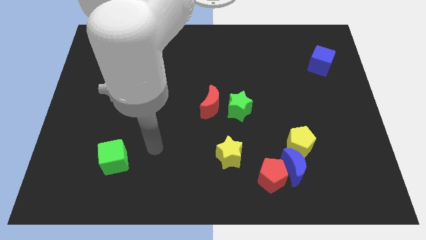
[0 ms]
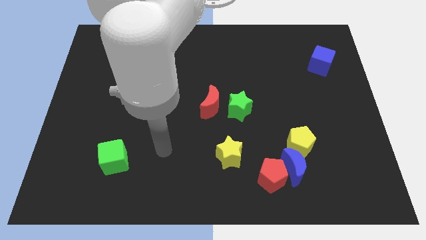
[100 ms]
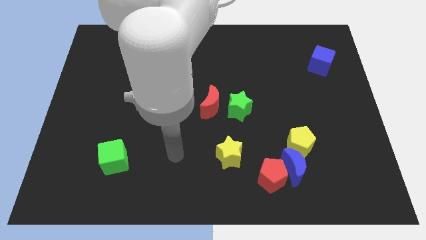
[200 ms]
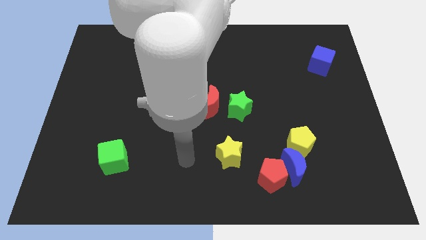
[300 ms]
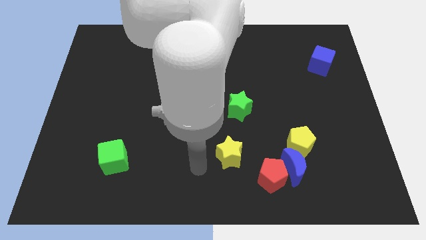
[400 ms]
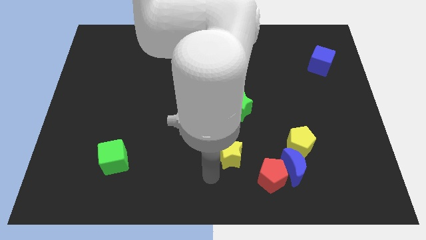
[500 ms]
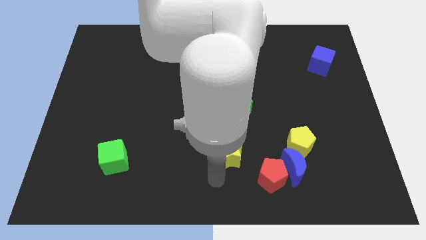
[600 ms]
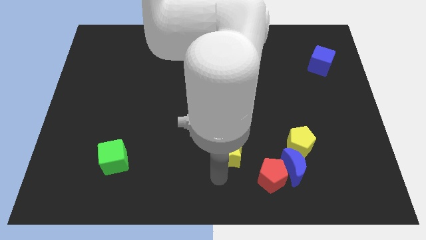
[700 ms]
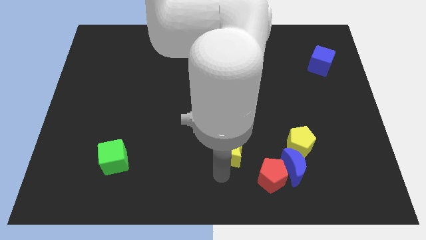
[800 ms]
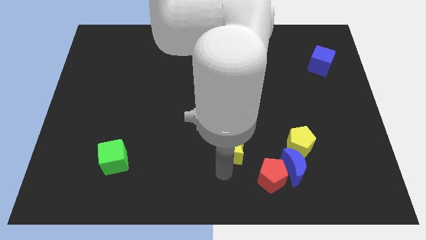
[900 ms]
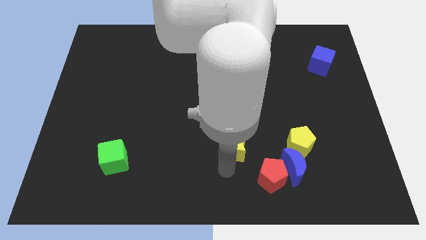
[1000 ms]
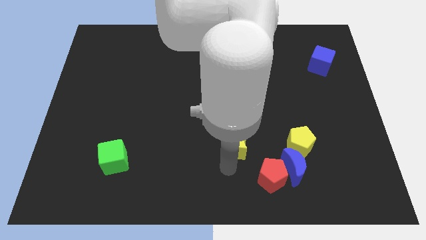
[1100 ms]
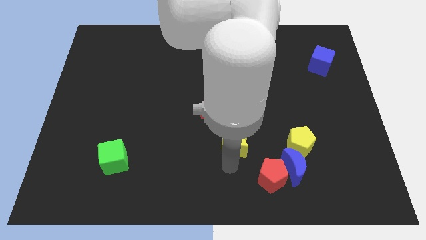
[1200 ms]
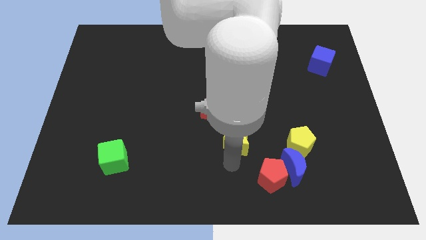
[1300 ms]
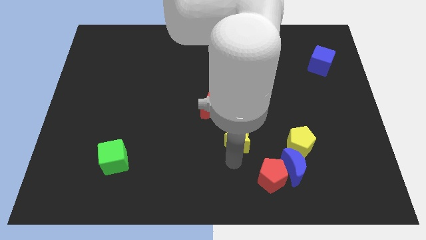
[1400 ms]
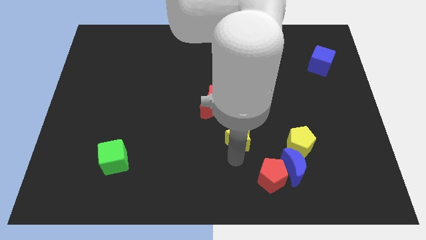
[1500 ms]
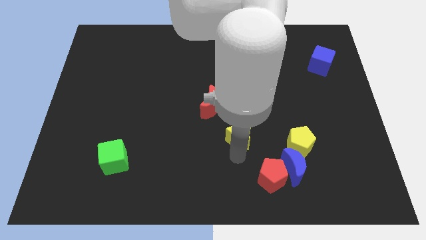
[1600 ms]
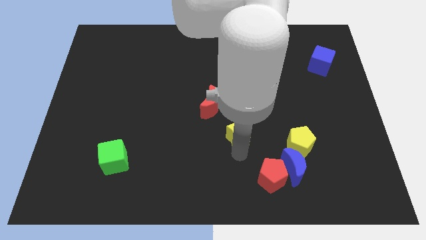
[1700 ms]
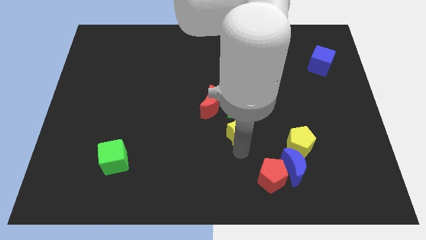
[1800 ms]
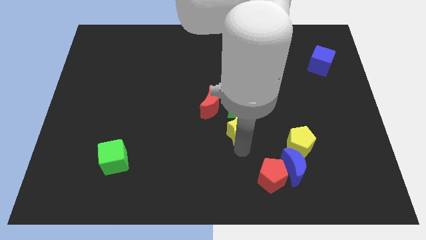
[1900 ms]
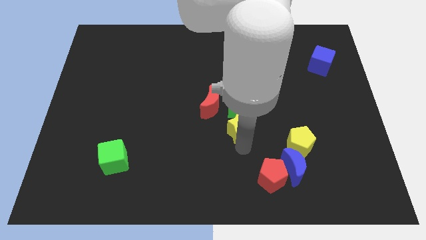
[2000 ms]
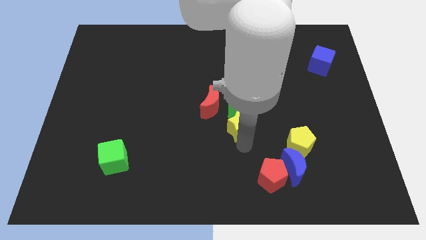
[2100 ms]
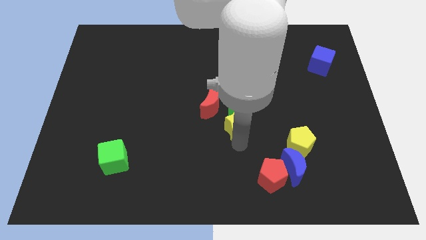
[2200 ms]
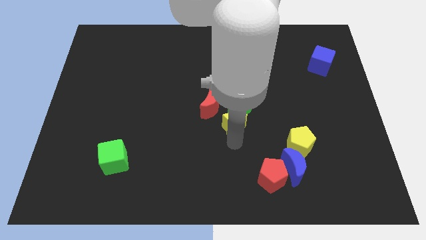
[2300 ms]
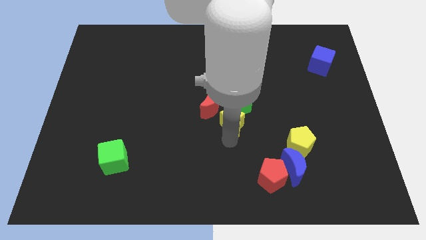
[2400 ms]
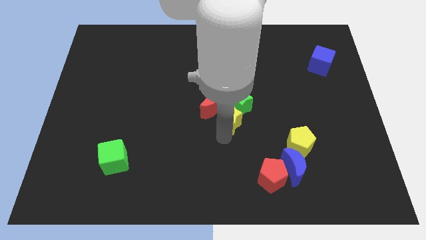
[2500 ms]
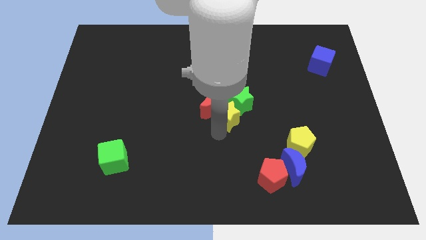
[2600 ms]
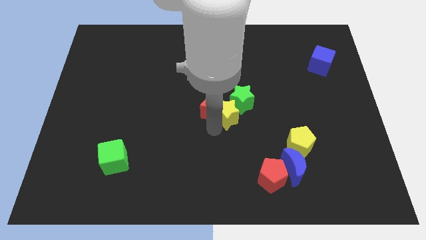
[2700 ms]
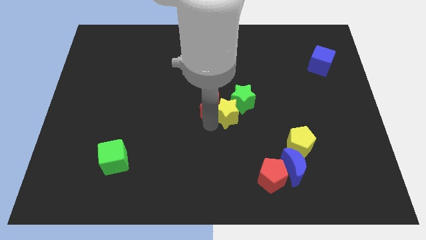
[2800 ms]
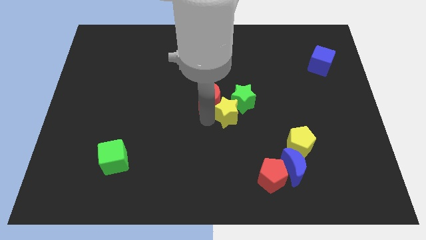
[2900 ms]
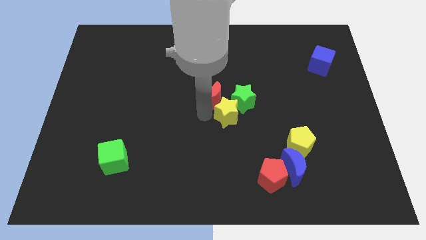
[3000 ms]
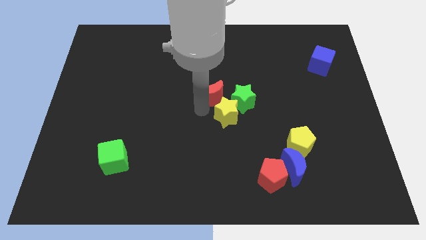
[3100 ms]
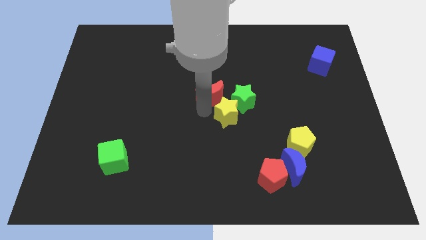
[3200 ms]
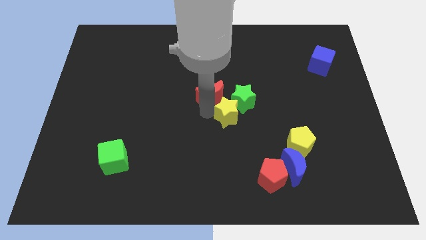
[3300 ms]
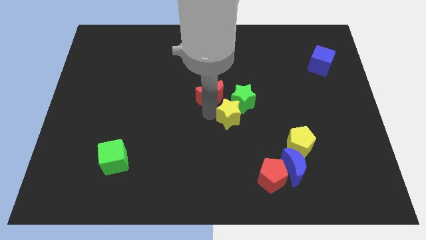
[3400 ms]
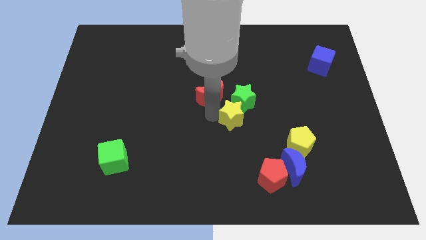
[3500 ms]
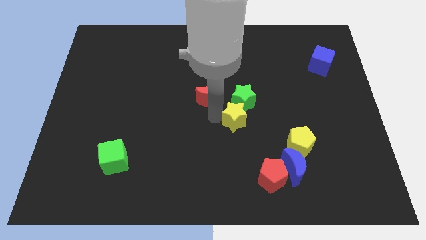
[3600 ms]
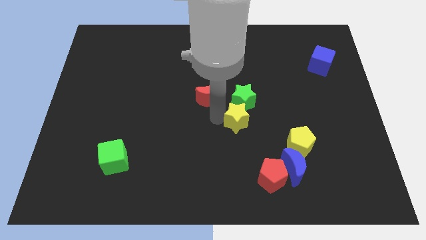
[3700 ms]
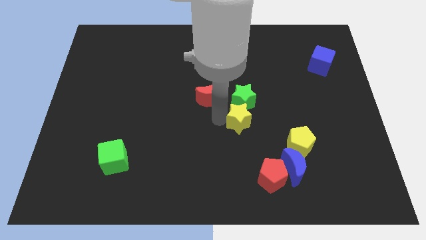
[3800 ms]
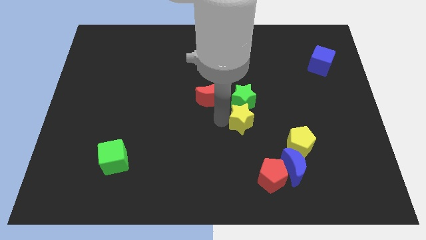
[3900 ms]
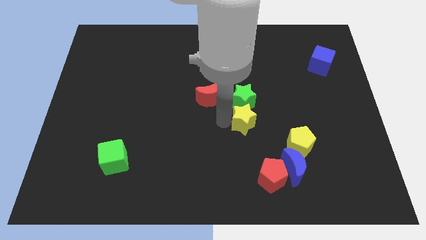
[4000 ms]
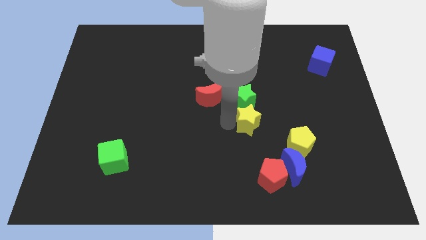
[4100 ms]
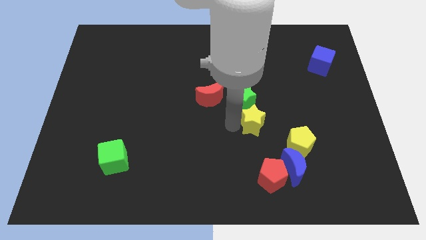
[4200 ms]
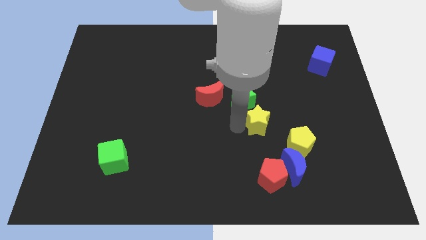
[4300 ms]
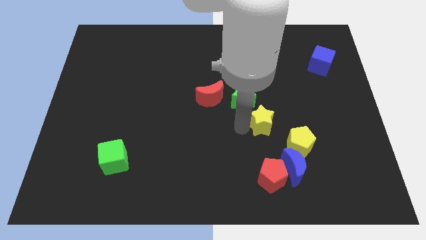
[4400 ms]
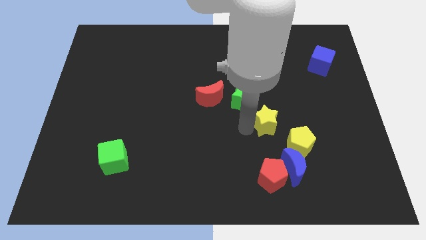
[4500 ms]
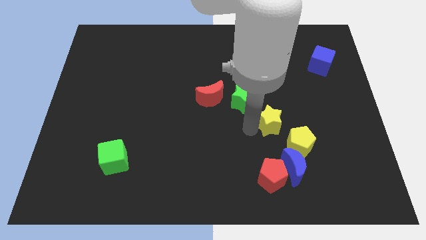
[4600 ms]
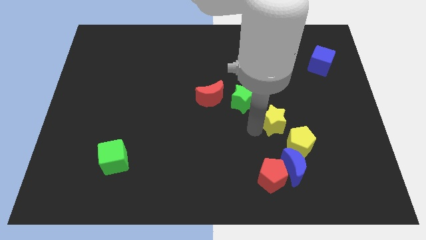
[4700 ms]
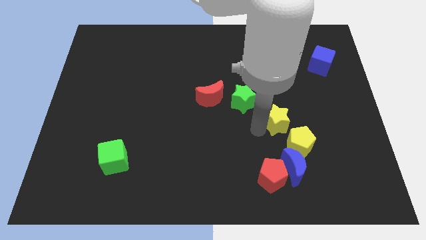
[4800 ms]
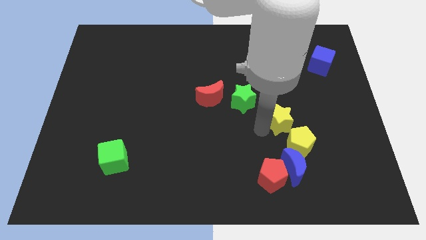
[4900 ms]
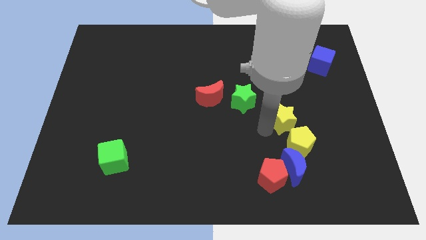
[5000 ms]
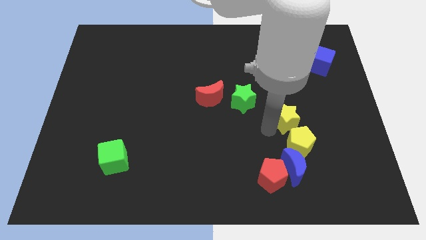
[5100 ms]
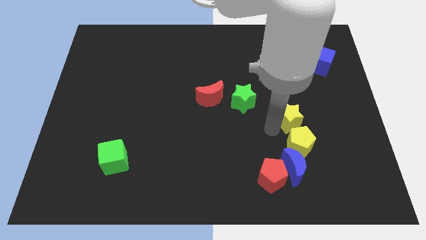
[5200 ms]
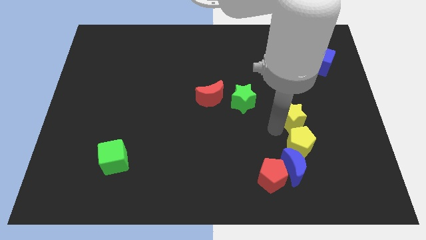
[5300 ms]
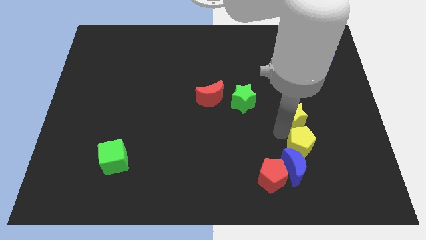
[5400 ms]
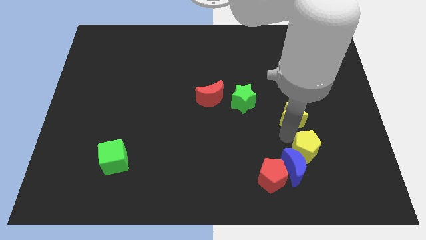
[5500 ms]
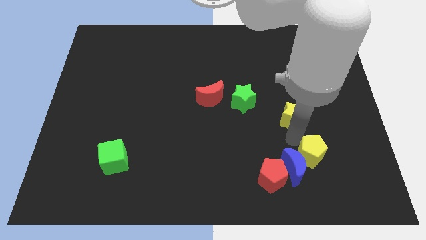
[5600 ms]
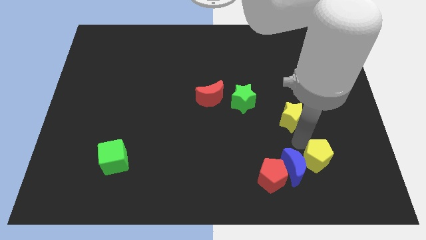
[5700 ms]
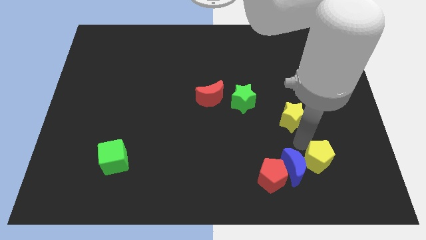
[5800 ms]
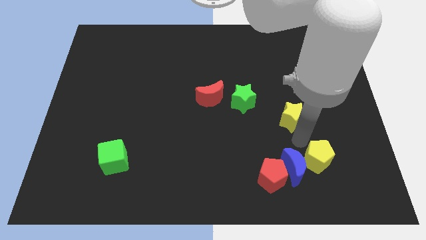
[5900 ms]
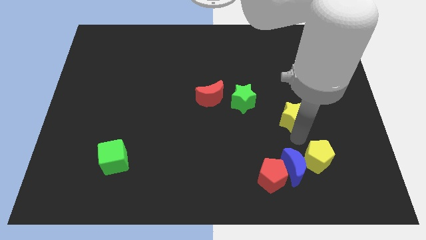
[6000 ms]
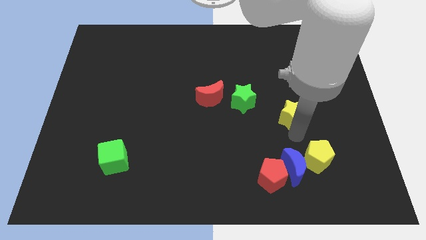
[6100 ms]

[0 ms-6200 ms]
move the yellow star right of the green star
